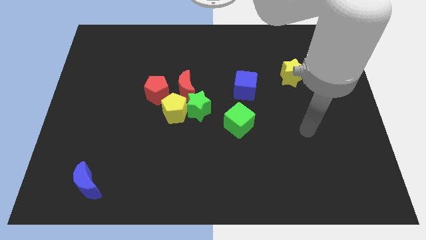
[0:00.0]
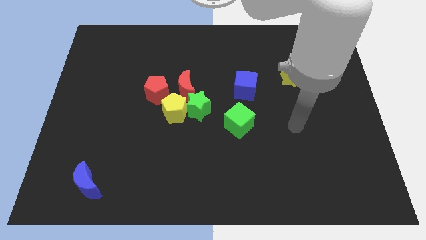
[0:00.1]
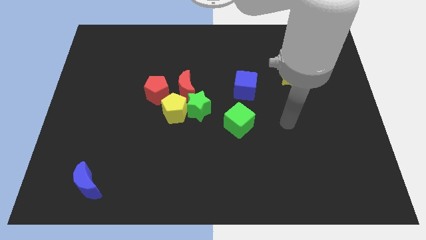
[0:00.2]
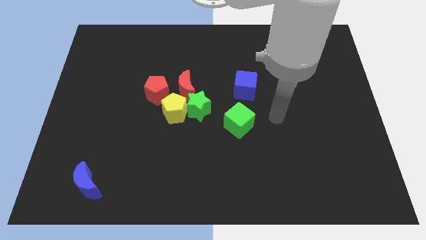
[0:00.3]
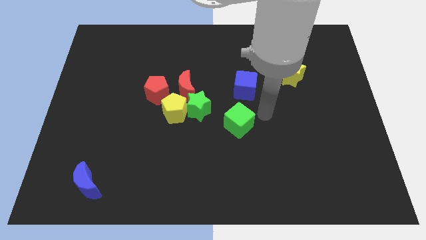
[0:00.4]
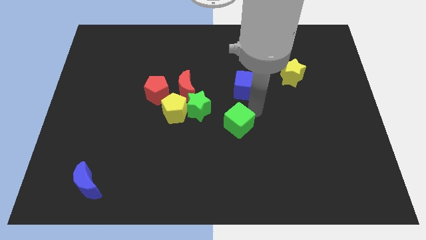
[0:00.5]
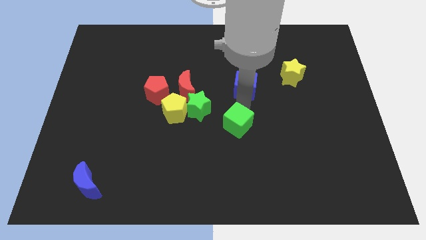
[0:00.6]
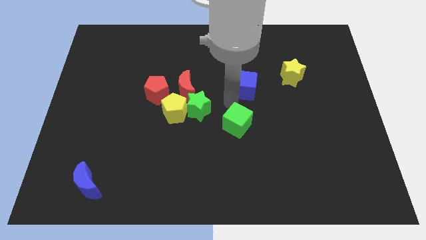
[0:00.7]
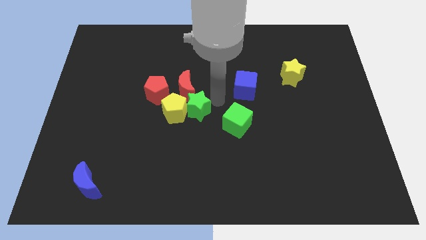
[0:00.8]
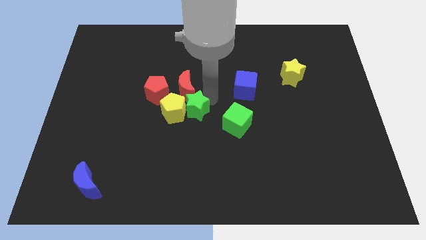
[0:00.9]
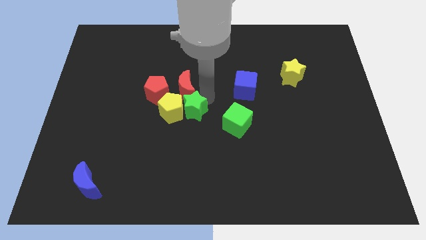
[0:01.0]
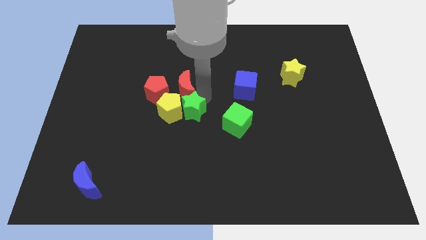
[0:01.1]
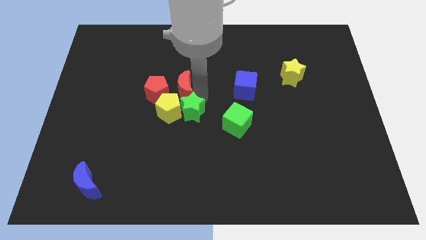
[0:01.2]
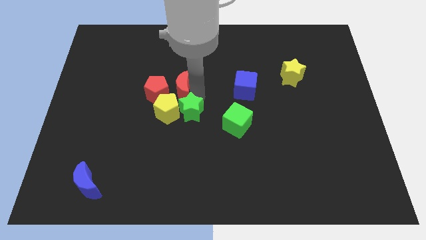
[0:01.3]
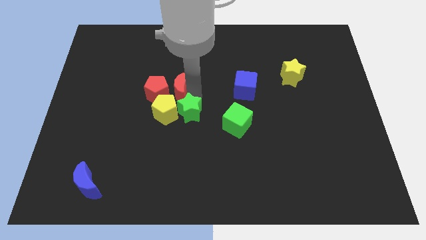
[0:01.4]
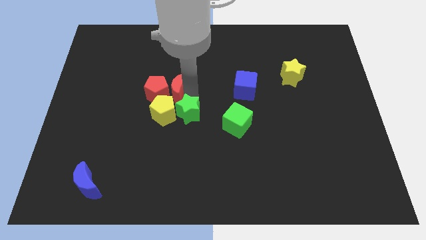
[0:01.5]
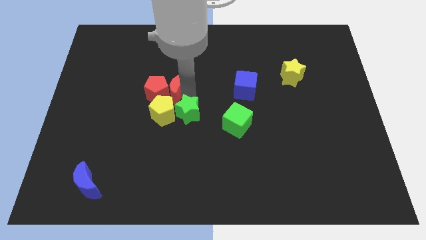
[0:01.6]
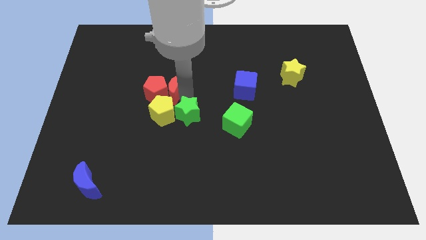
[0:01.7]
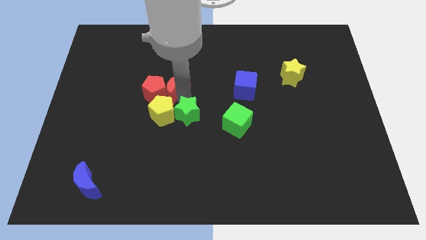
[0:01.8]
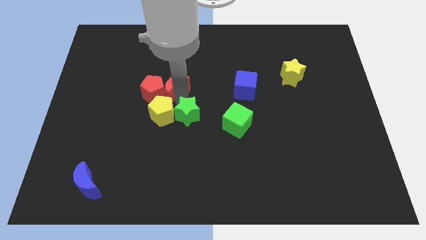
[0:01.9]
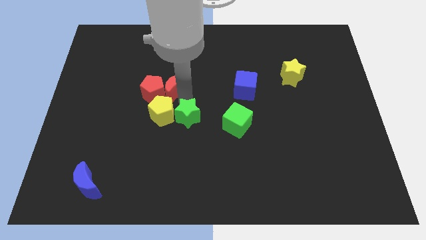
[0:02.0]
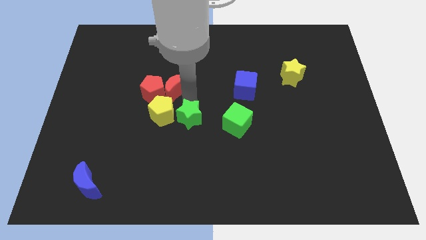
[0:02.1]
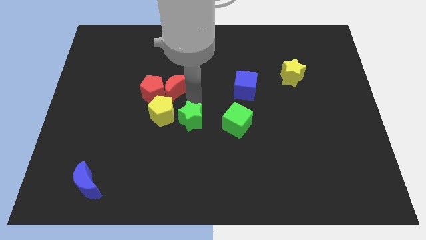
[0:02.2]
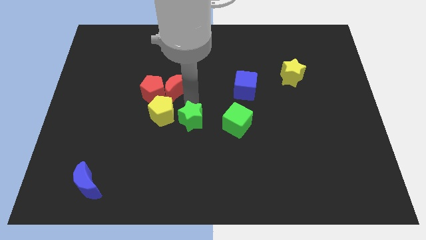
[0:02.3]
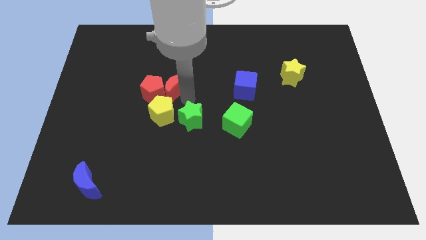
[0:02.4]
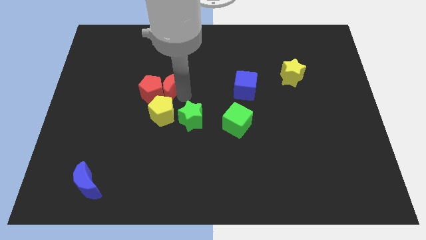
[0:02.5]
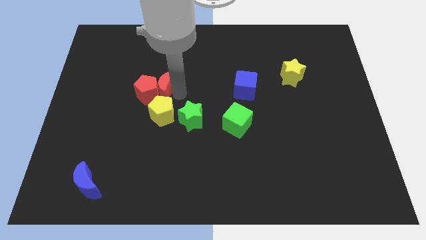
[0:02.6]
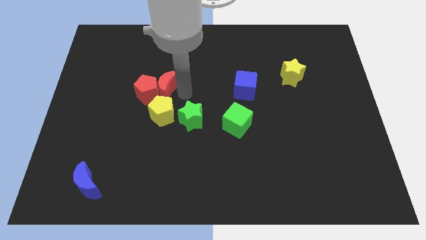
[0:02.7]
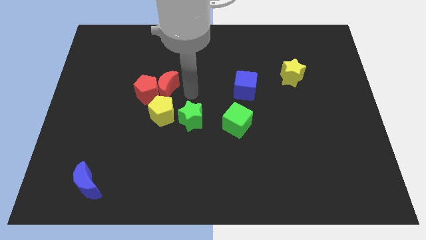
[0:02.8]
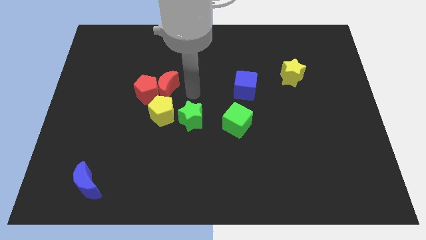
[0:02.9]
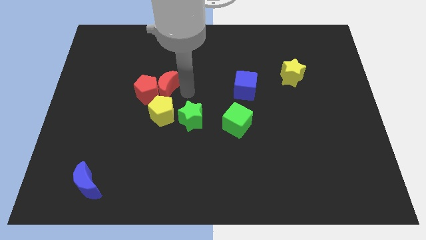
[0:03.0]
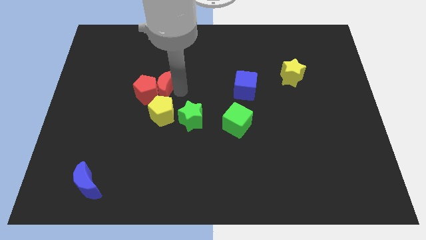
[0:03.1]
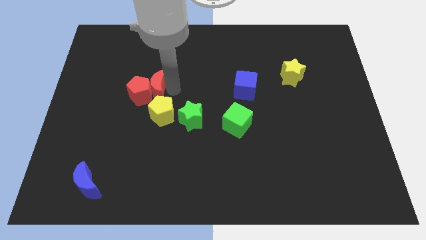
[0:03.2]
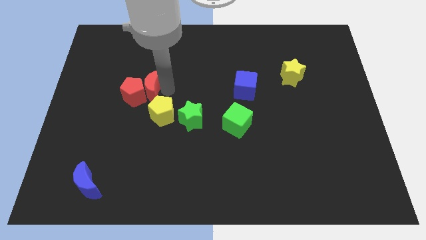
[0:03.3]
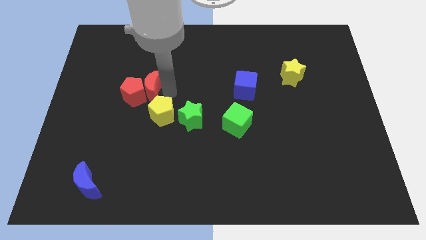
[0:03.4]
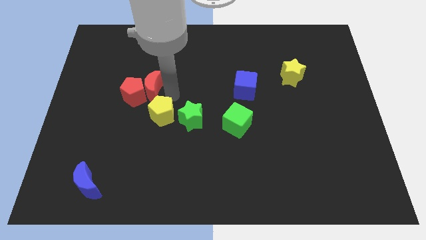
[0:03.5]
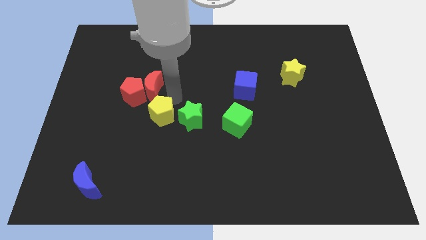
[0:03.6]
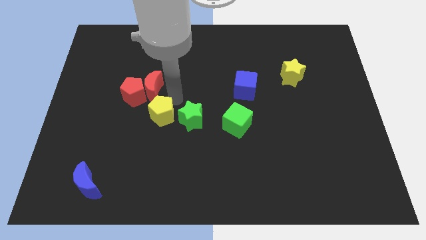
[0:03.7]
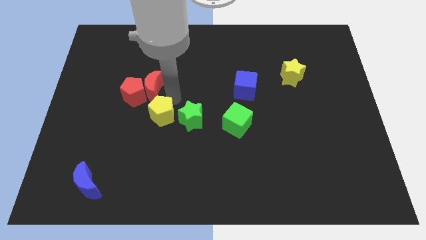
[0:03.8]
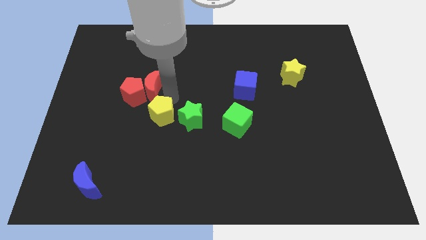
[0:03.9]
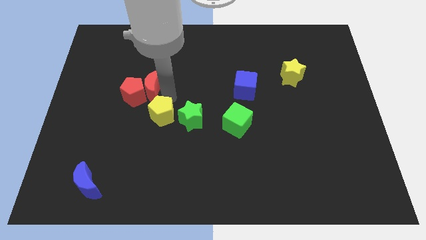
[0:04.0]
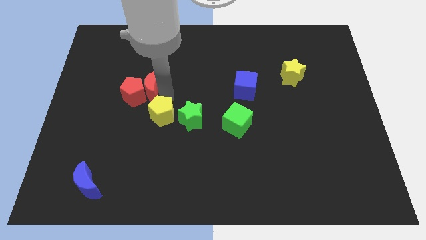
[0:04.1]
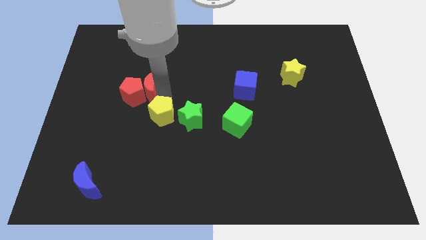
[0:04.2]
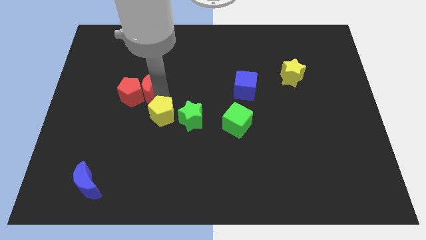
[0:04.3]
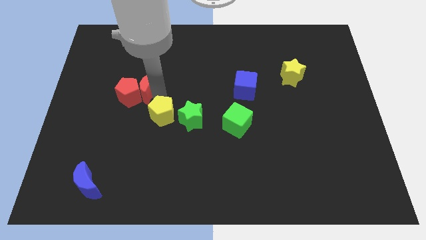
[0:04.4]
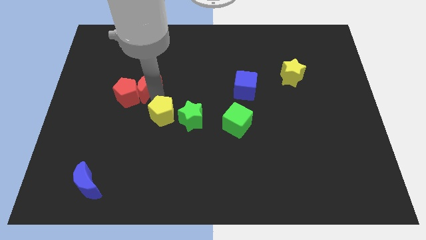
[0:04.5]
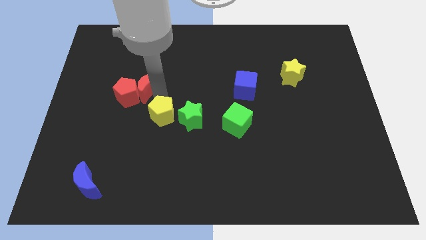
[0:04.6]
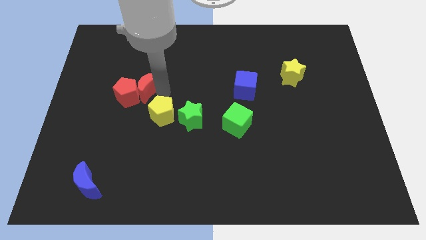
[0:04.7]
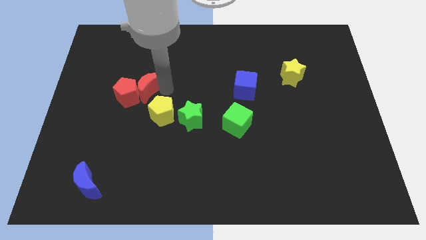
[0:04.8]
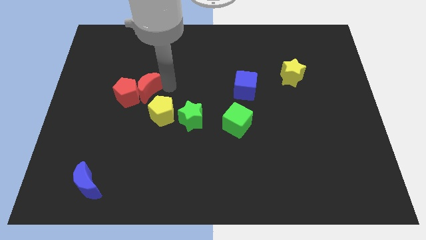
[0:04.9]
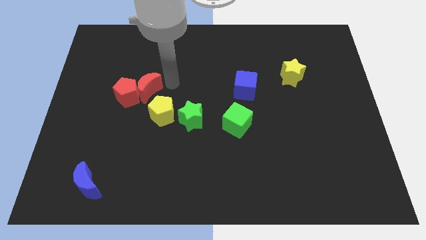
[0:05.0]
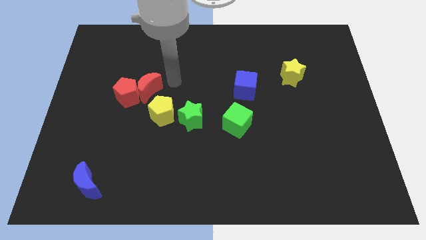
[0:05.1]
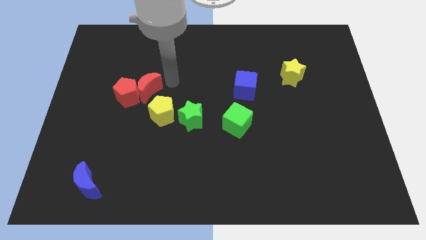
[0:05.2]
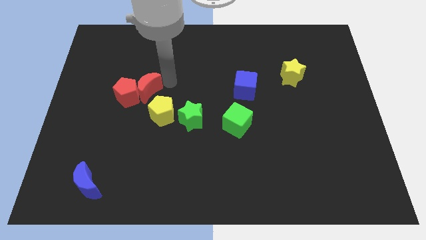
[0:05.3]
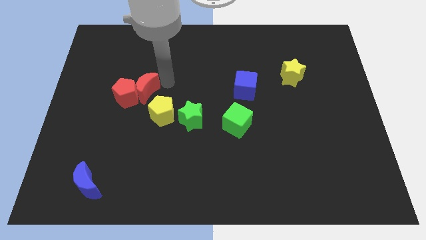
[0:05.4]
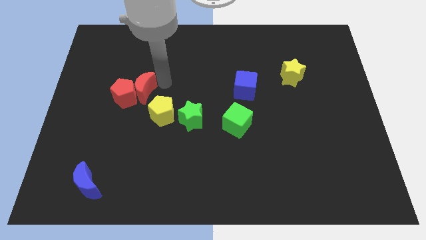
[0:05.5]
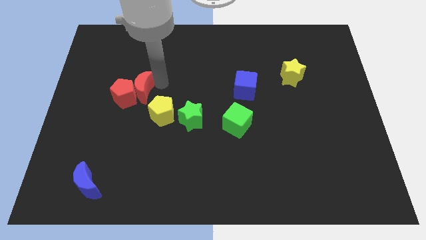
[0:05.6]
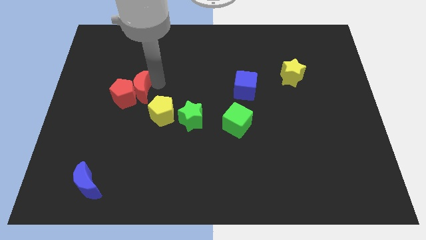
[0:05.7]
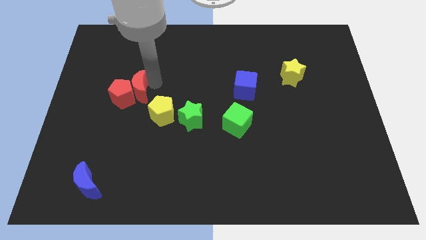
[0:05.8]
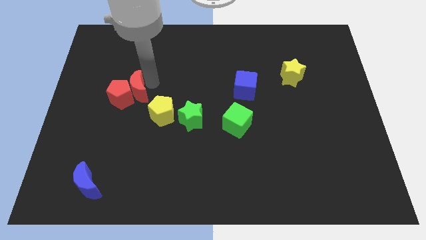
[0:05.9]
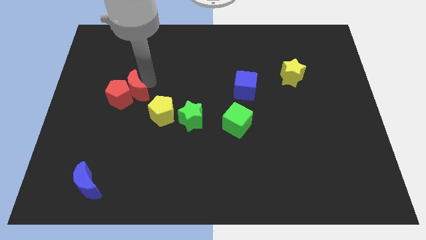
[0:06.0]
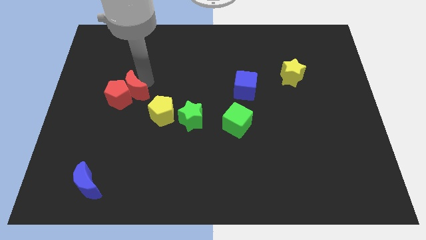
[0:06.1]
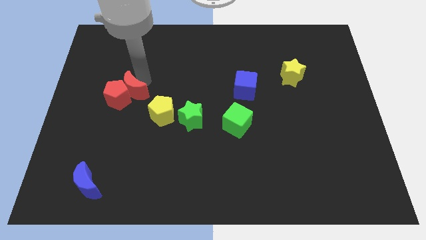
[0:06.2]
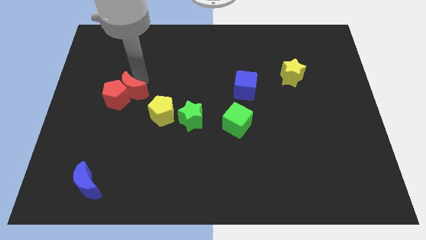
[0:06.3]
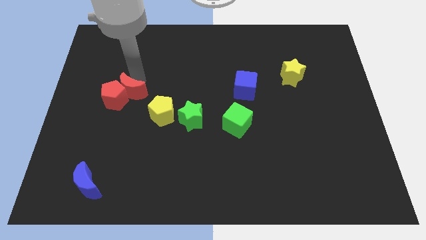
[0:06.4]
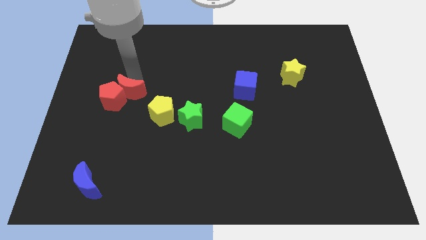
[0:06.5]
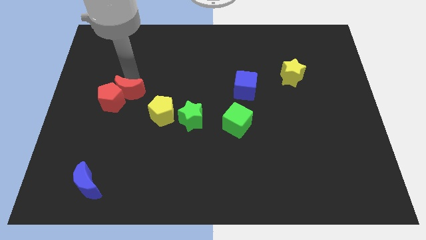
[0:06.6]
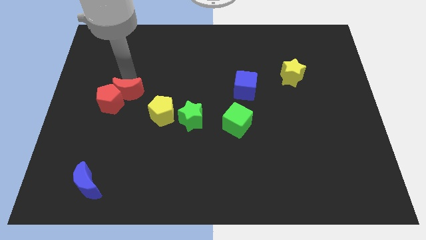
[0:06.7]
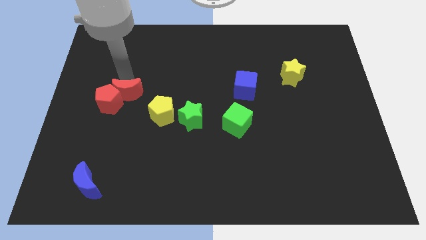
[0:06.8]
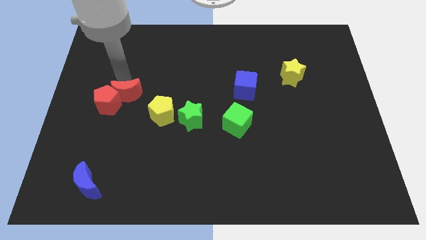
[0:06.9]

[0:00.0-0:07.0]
push the red moon a little bit downwards and left diagonally

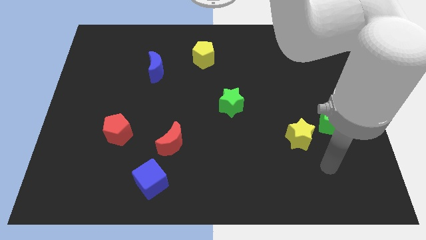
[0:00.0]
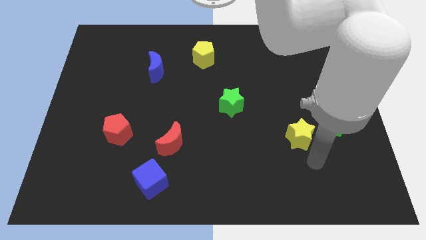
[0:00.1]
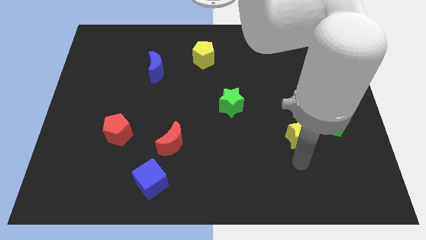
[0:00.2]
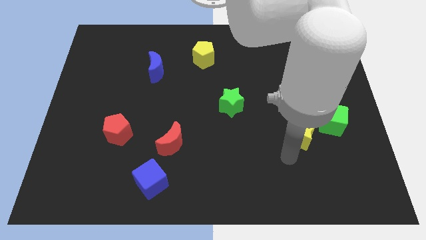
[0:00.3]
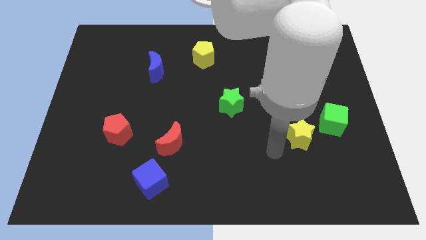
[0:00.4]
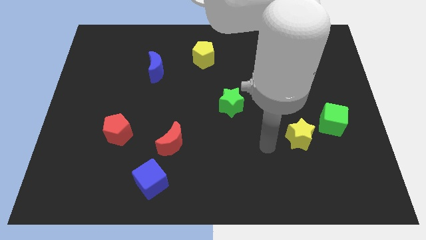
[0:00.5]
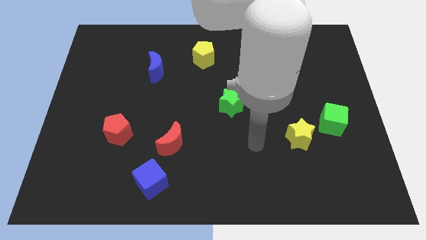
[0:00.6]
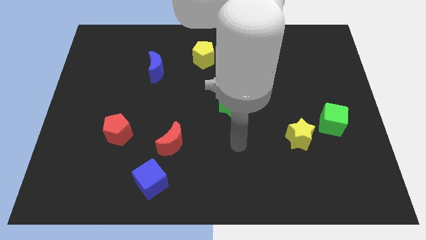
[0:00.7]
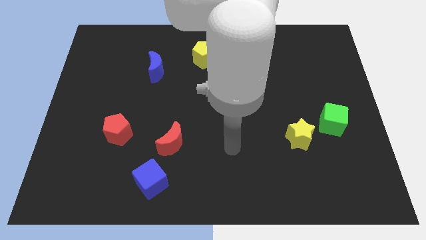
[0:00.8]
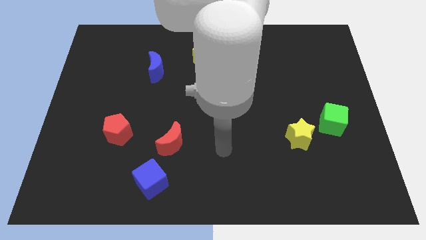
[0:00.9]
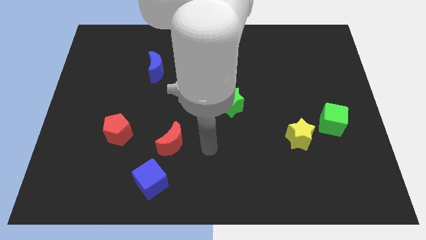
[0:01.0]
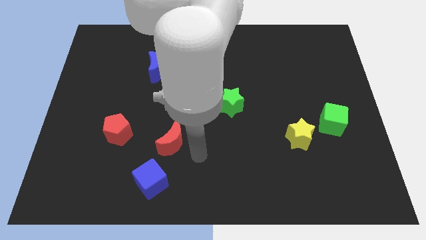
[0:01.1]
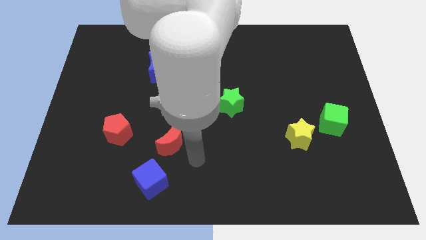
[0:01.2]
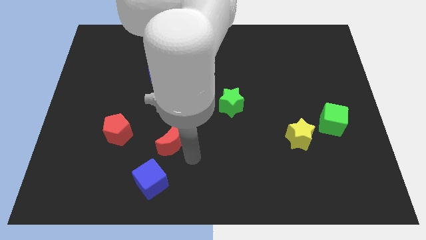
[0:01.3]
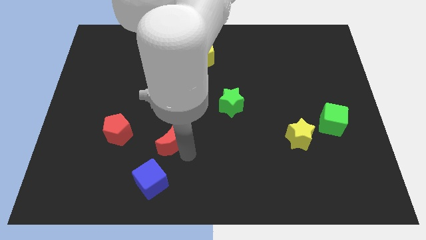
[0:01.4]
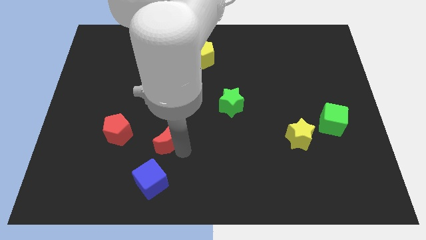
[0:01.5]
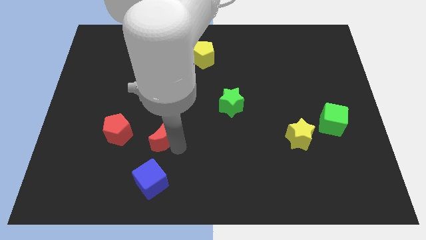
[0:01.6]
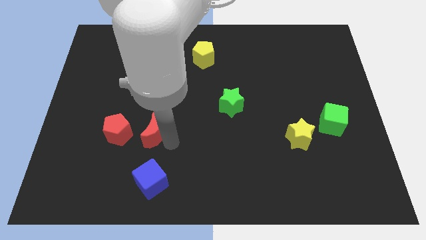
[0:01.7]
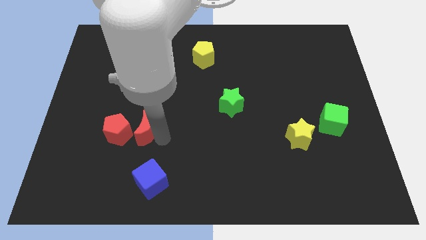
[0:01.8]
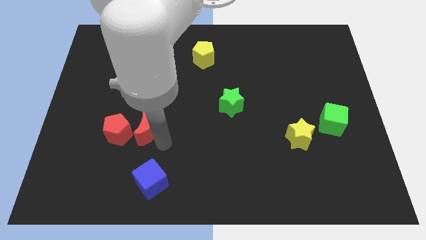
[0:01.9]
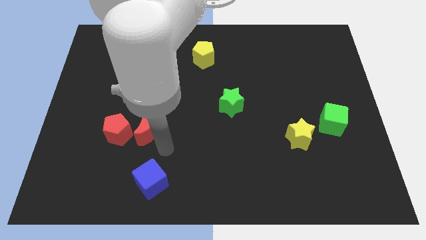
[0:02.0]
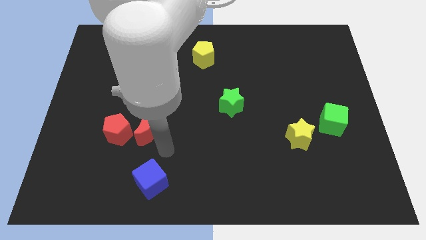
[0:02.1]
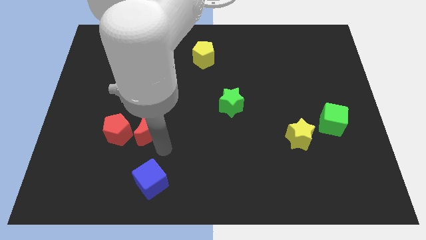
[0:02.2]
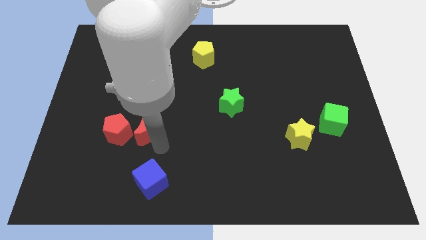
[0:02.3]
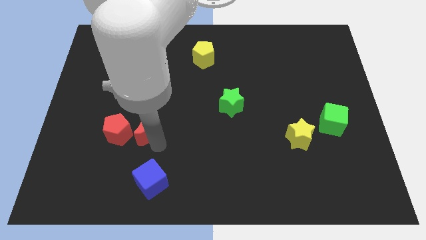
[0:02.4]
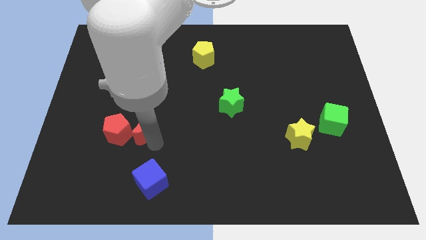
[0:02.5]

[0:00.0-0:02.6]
slide the red moon a bit up and left
